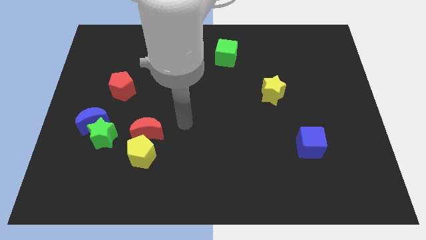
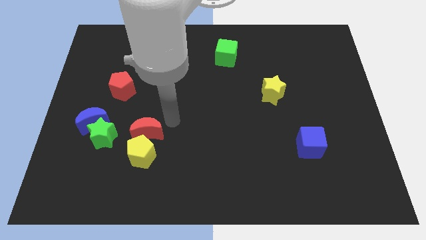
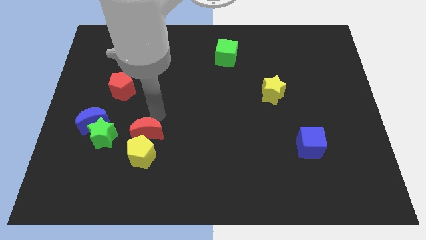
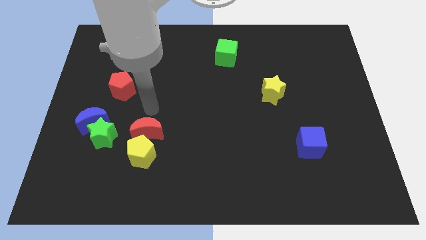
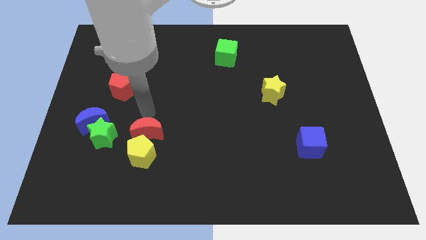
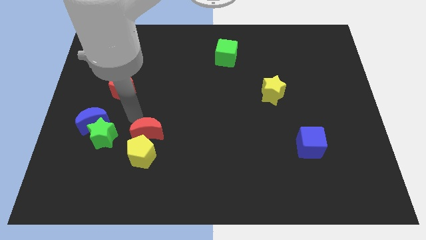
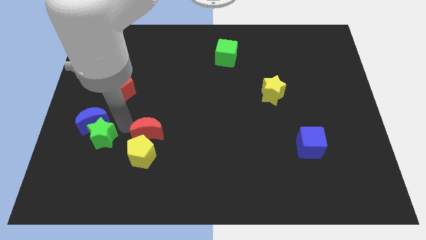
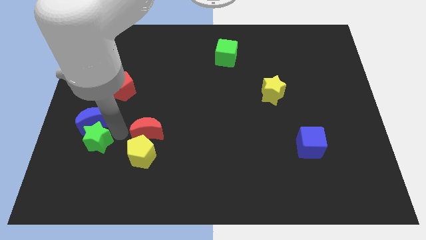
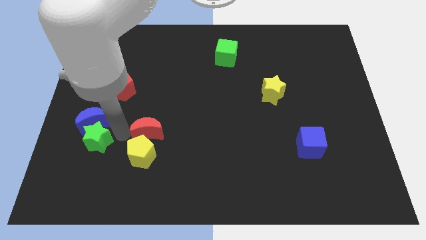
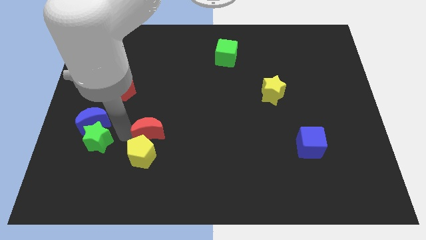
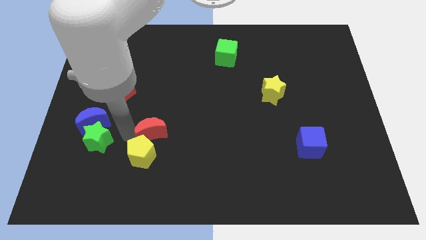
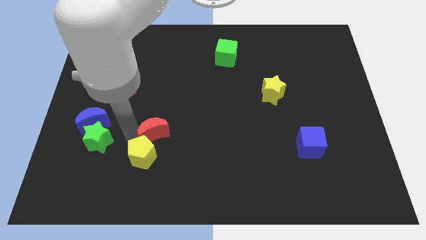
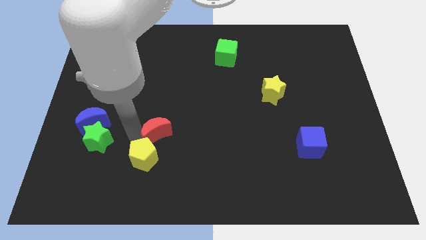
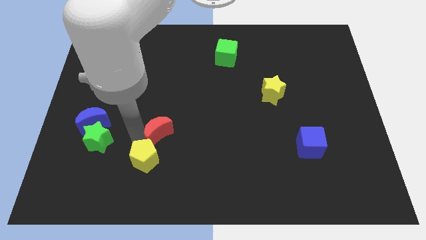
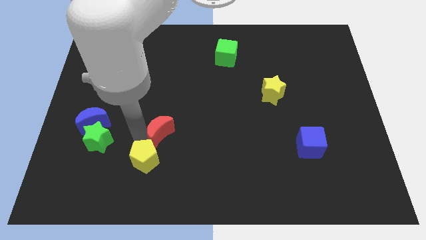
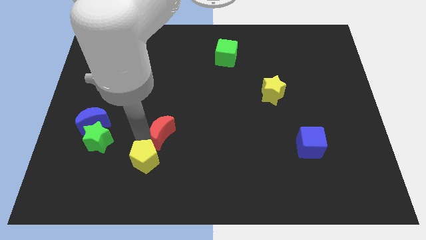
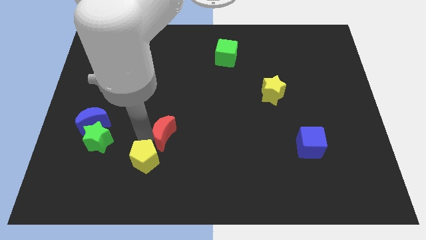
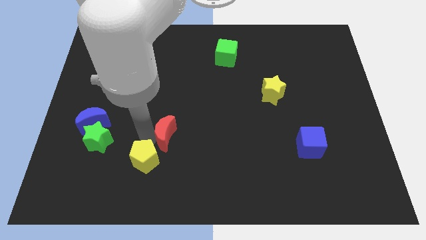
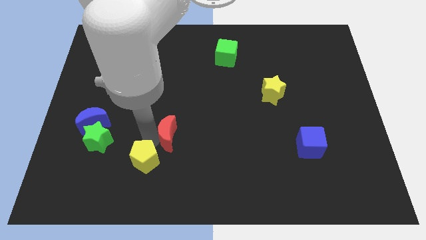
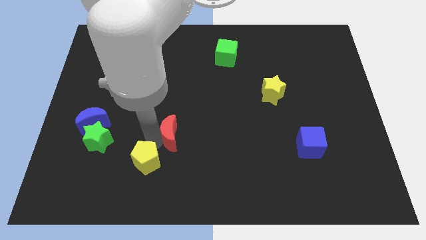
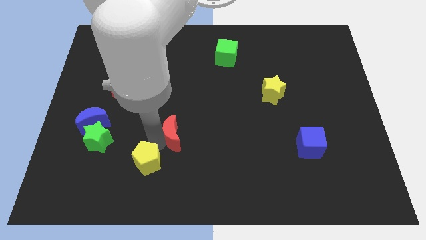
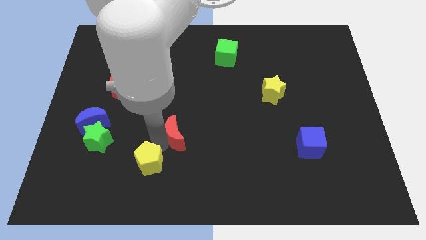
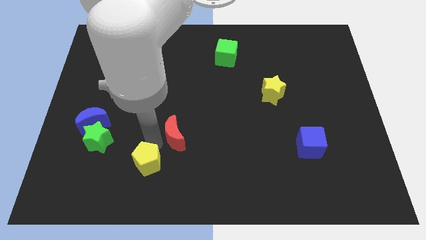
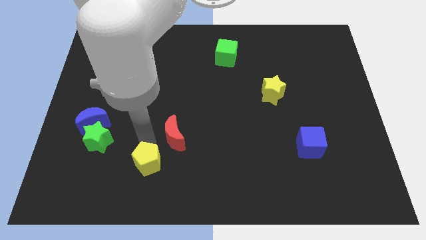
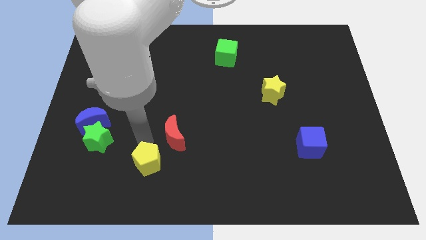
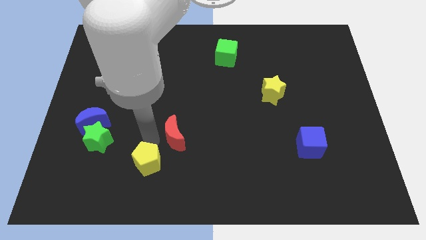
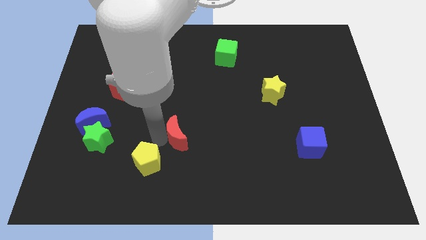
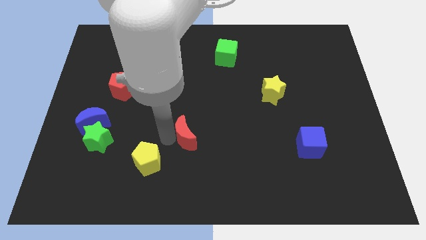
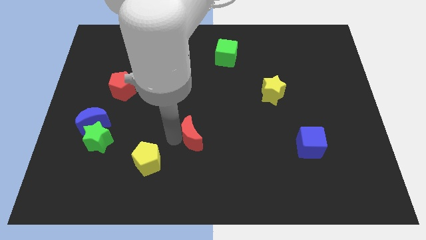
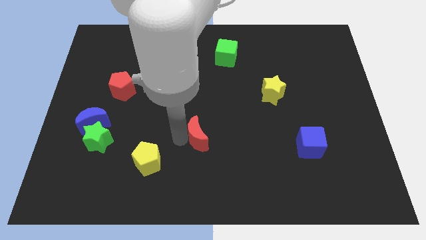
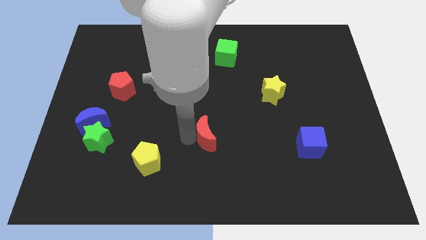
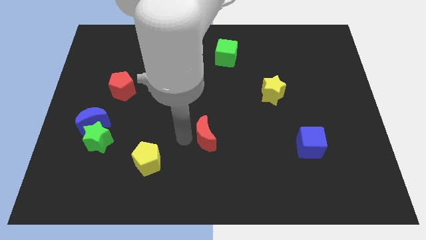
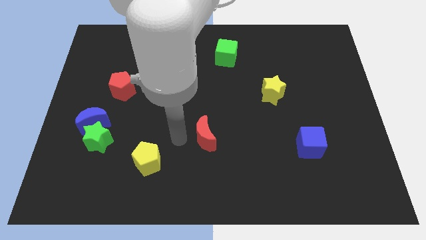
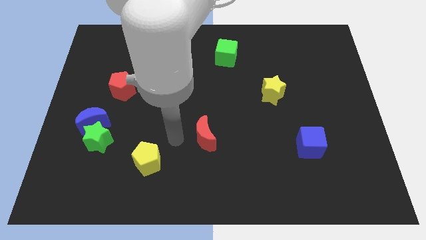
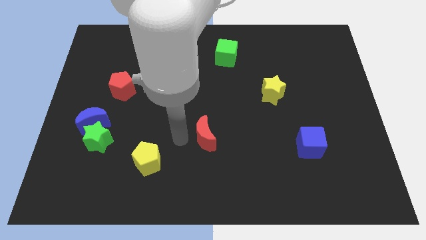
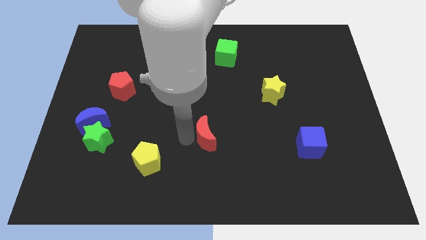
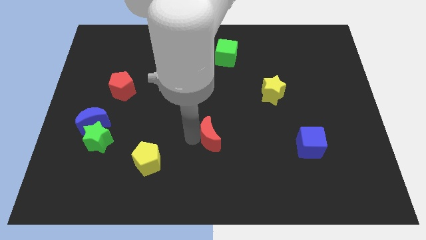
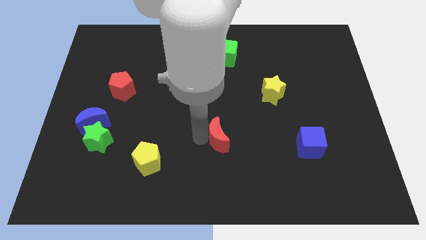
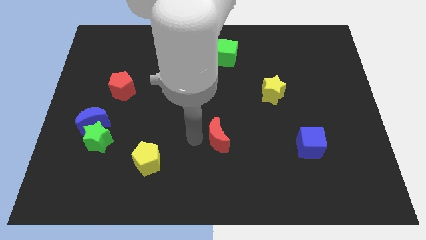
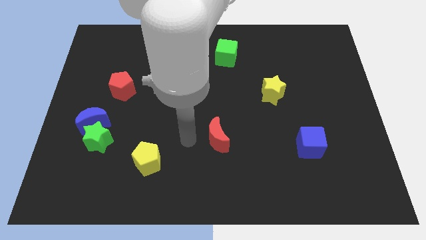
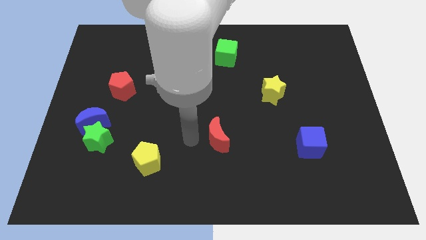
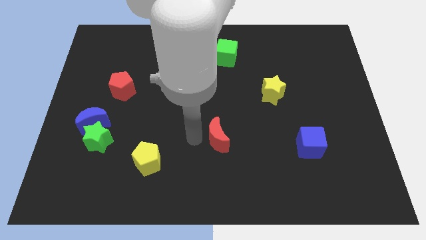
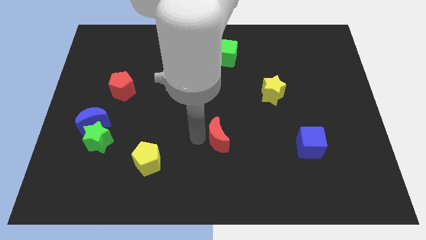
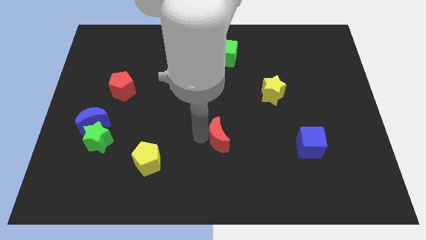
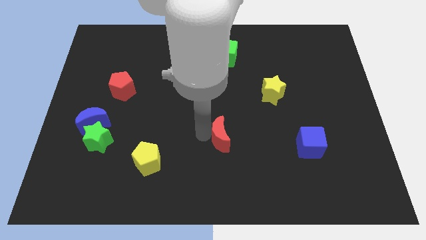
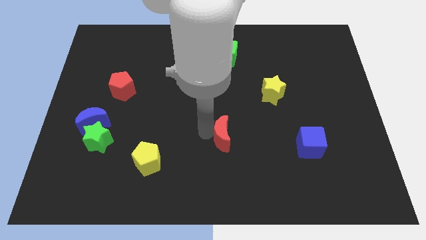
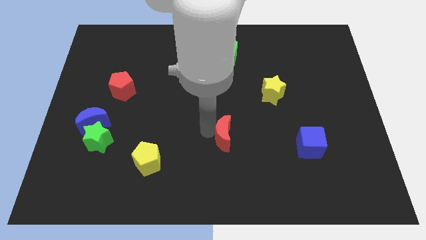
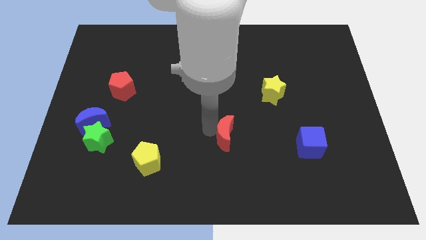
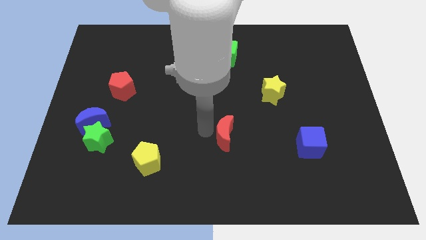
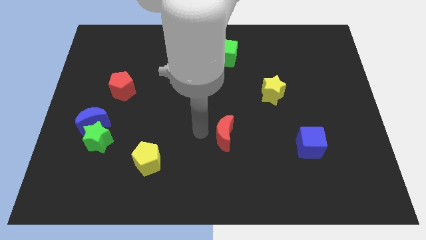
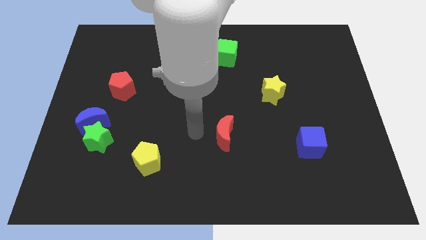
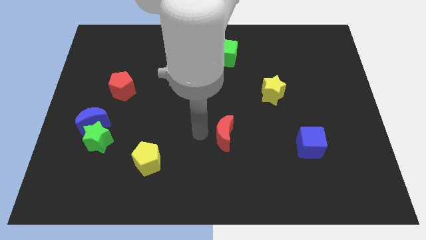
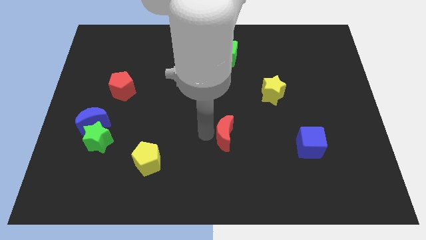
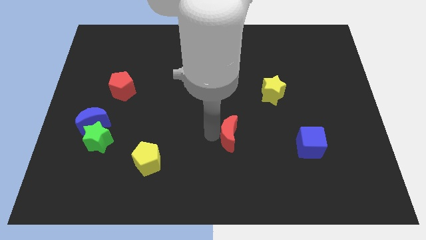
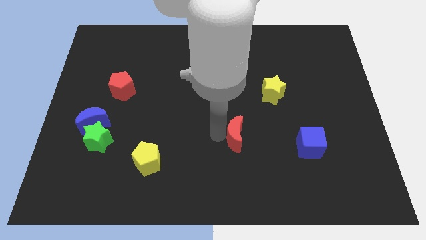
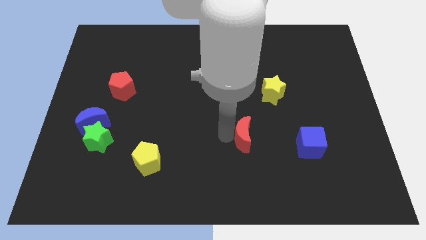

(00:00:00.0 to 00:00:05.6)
push the red moon right

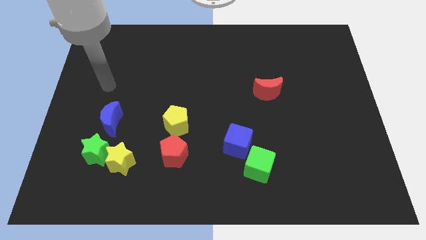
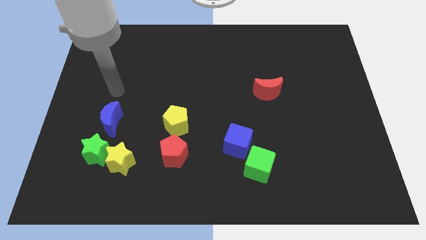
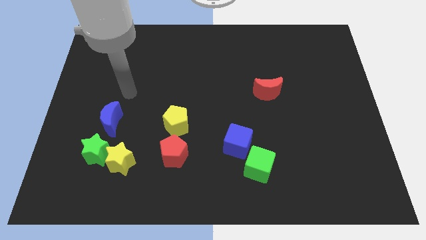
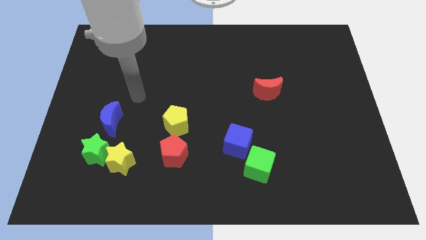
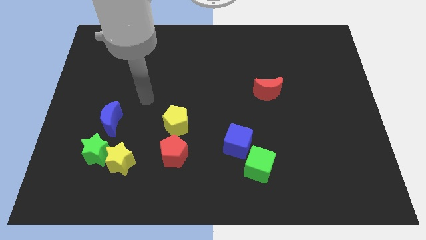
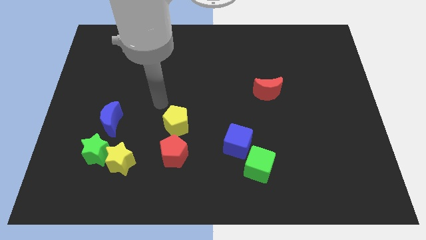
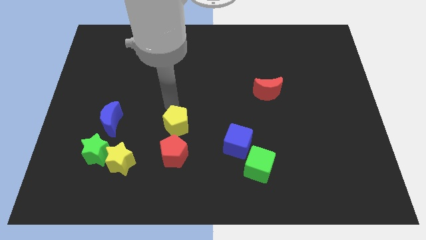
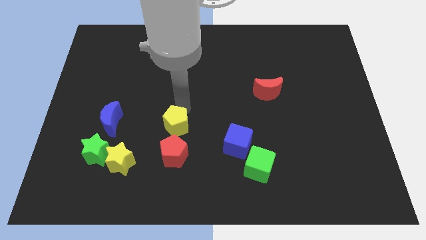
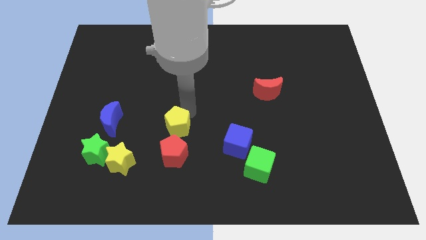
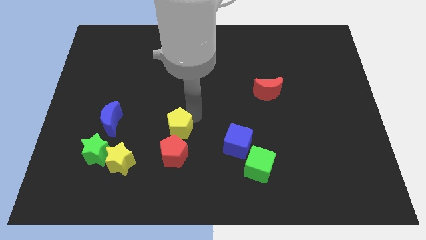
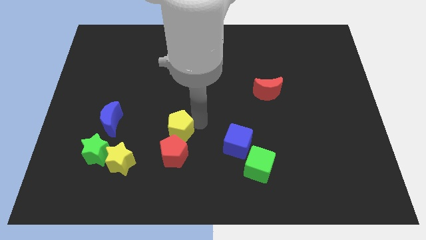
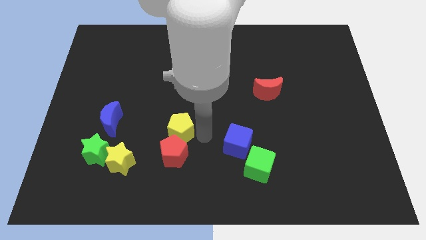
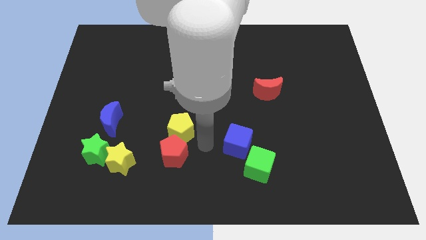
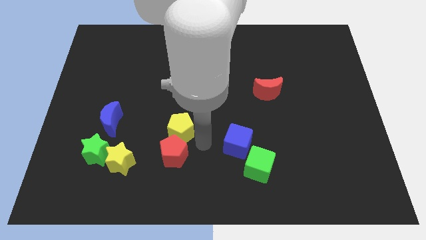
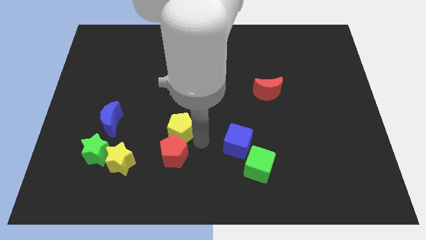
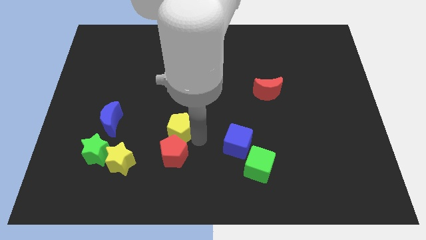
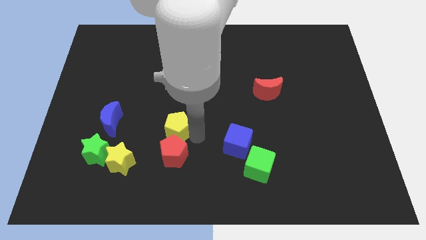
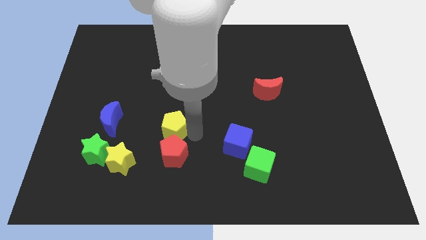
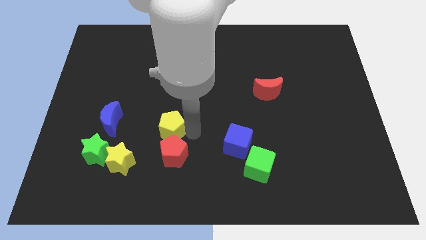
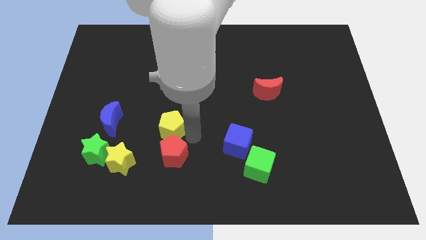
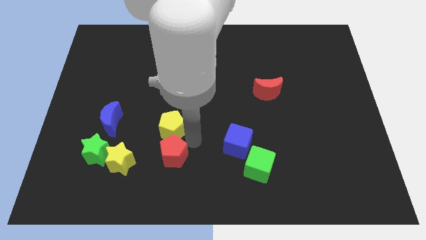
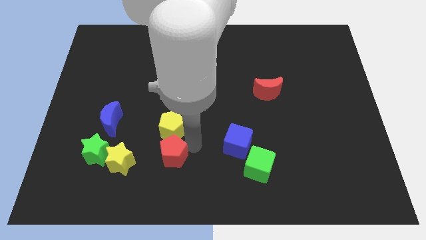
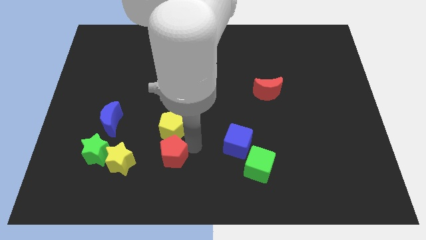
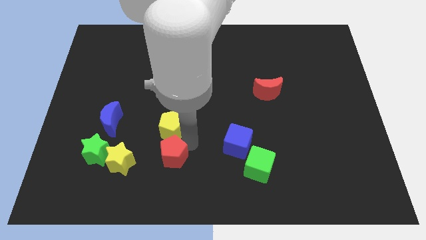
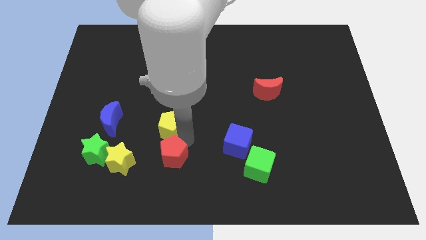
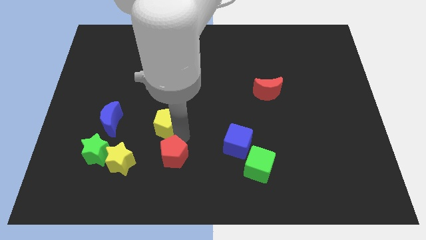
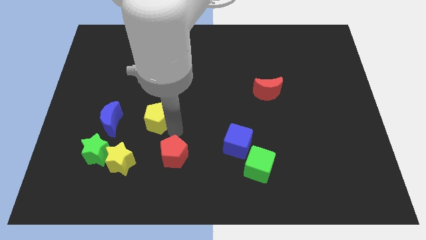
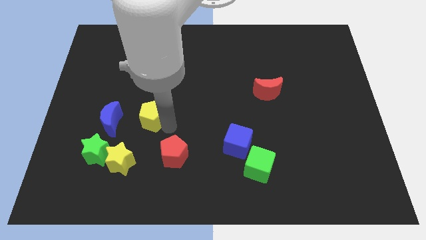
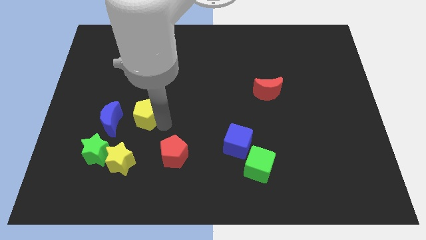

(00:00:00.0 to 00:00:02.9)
slide the yellow pentagon to the left somewhat
